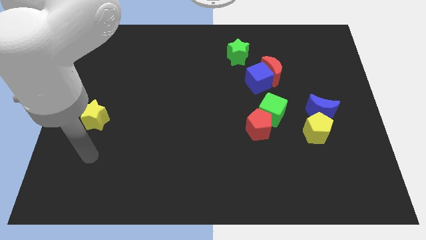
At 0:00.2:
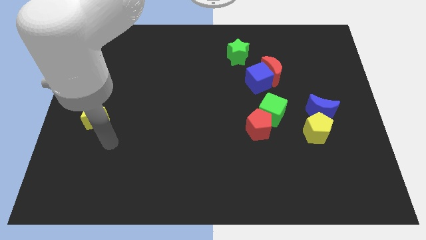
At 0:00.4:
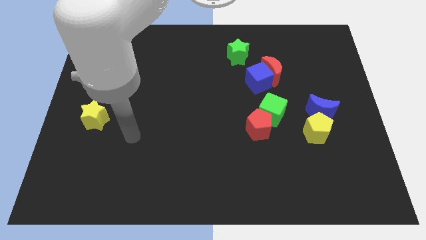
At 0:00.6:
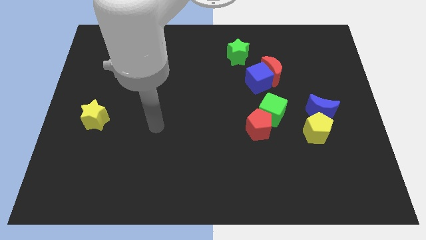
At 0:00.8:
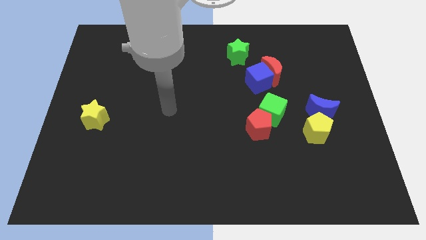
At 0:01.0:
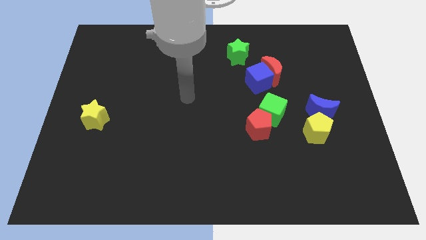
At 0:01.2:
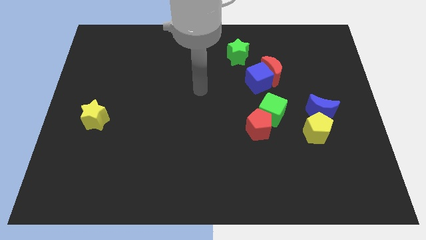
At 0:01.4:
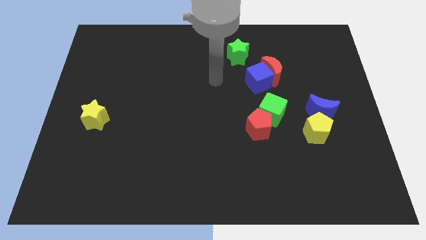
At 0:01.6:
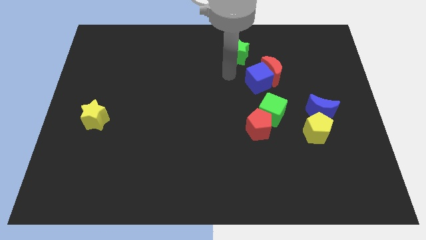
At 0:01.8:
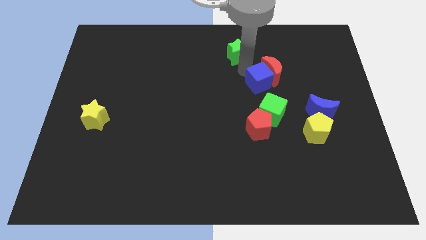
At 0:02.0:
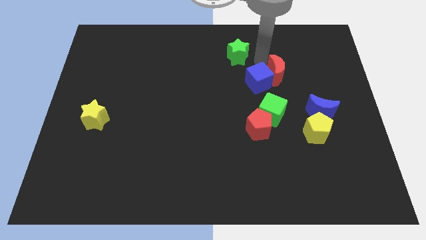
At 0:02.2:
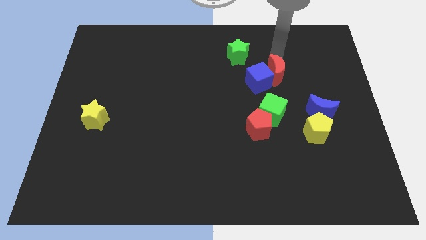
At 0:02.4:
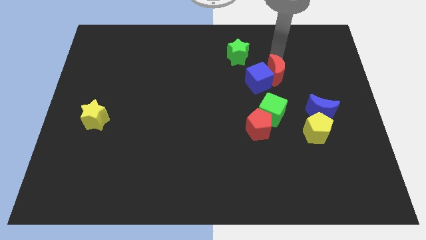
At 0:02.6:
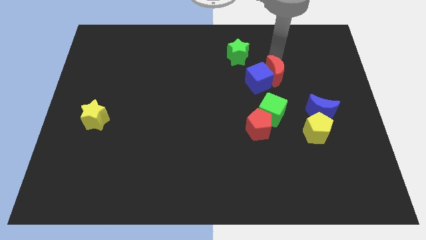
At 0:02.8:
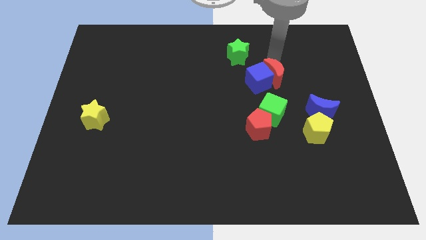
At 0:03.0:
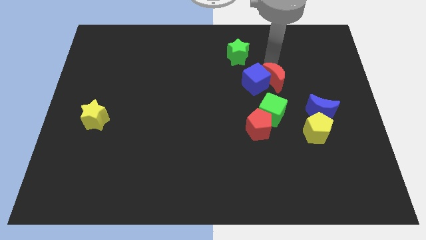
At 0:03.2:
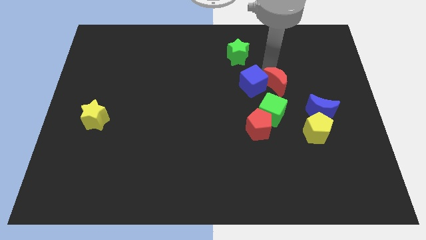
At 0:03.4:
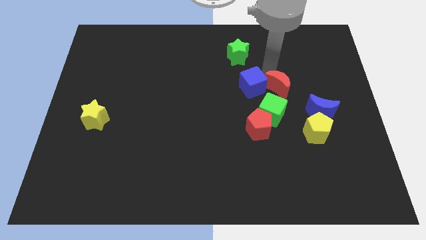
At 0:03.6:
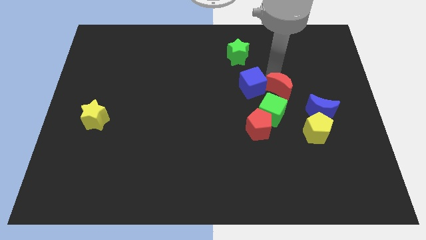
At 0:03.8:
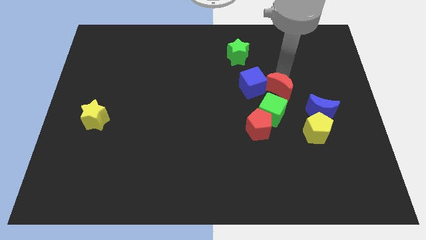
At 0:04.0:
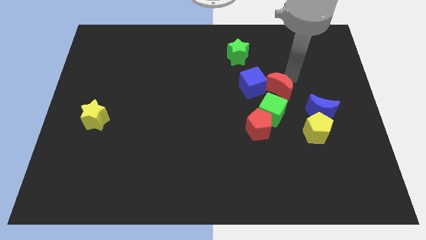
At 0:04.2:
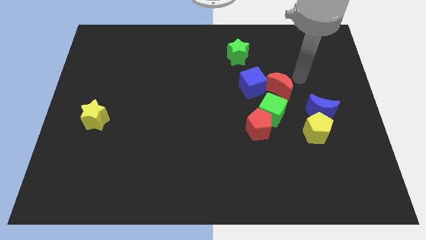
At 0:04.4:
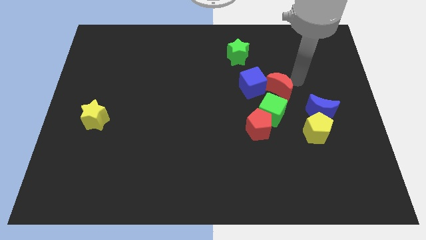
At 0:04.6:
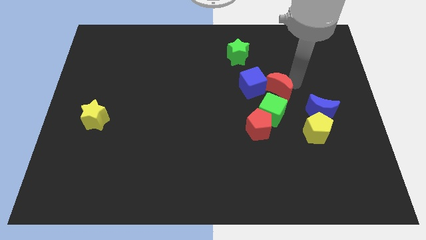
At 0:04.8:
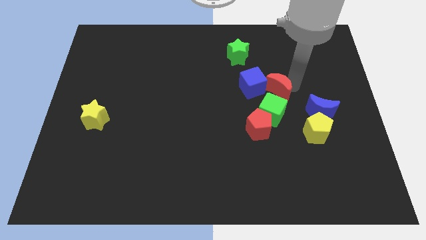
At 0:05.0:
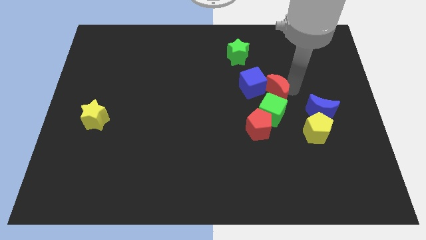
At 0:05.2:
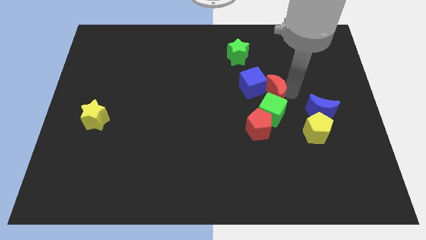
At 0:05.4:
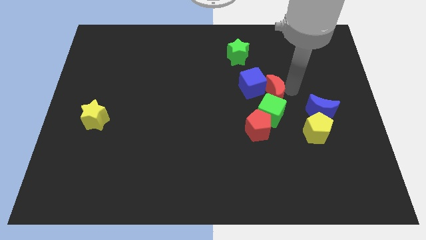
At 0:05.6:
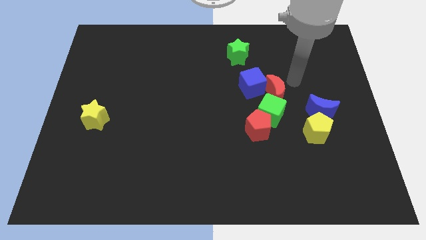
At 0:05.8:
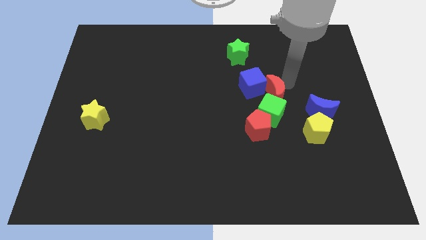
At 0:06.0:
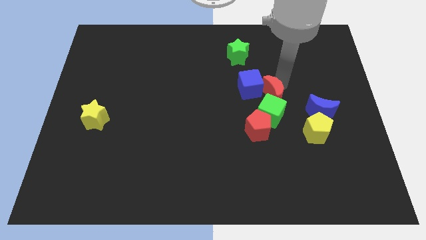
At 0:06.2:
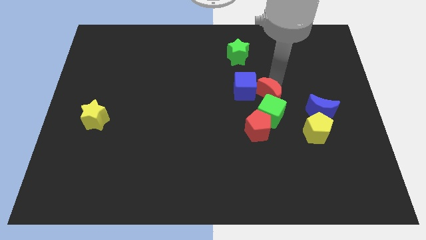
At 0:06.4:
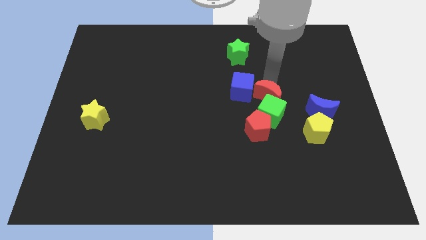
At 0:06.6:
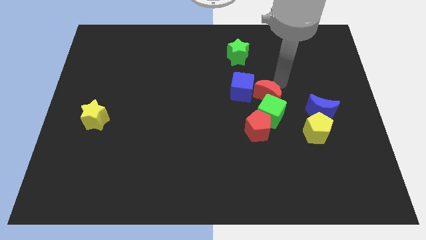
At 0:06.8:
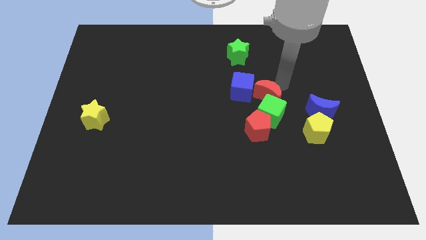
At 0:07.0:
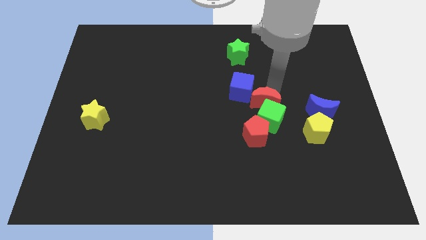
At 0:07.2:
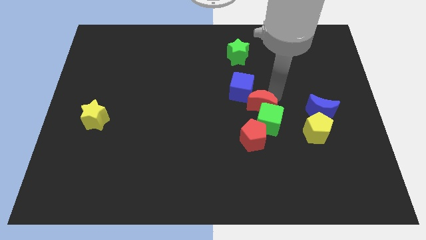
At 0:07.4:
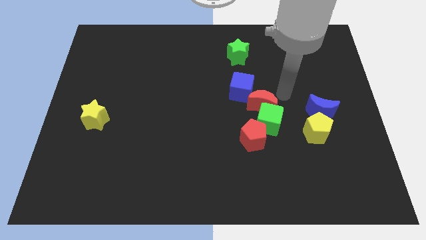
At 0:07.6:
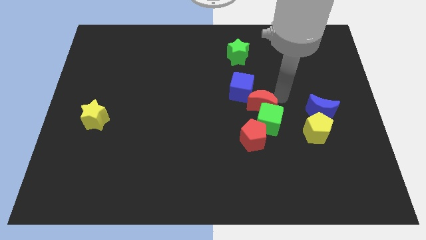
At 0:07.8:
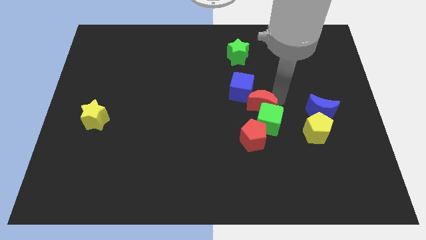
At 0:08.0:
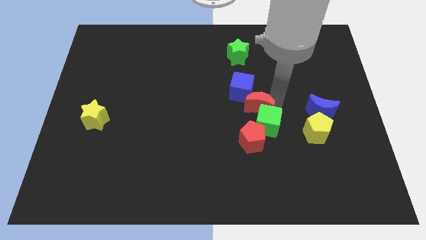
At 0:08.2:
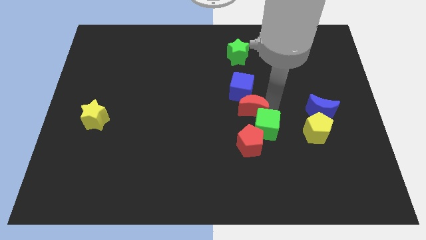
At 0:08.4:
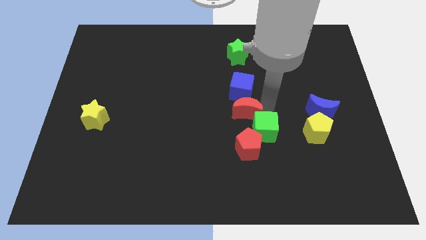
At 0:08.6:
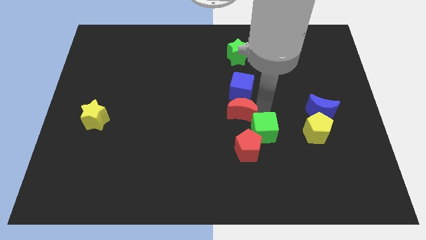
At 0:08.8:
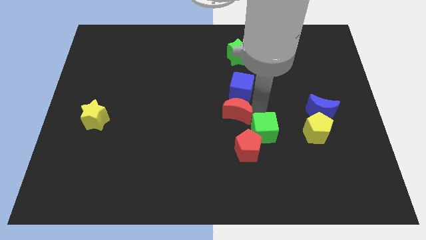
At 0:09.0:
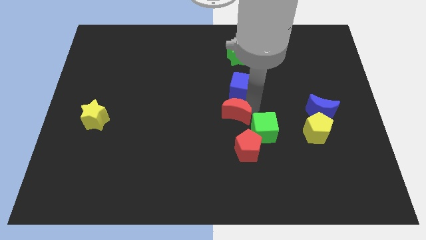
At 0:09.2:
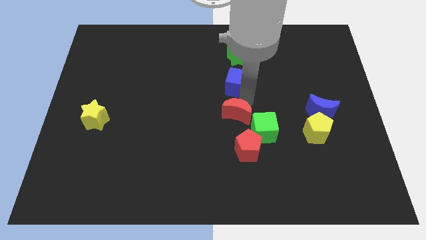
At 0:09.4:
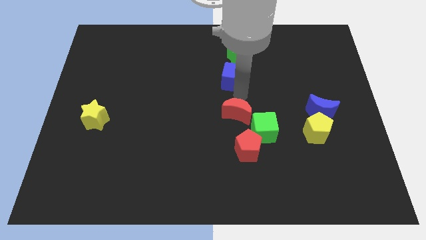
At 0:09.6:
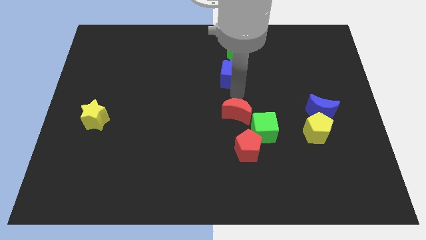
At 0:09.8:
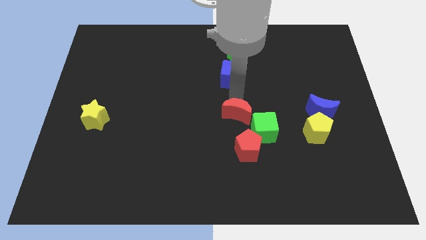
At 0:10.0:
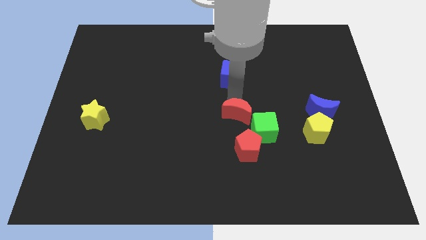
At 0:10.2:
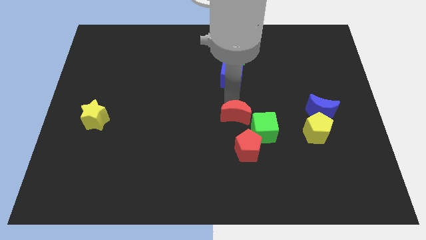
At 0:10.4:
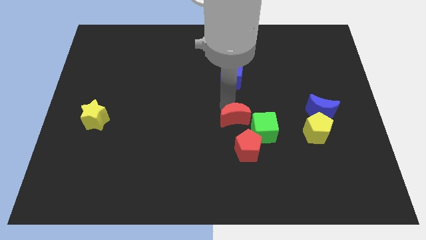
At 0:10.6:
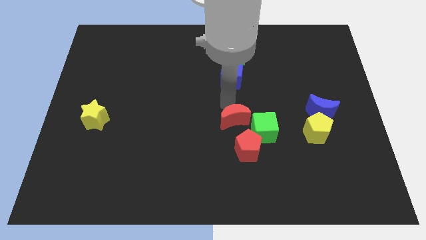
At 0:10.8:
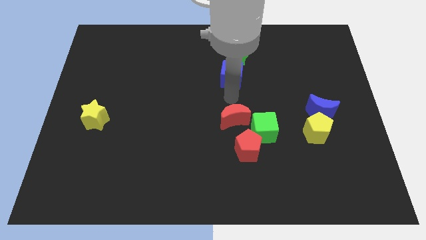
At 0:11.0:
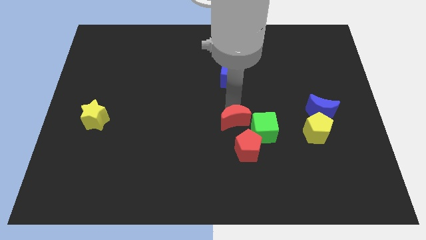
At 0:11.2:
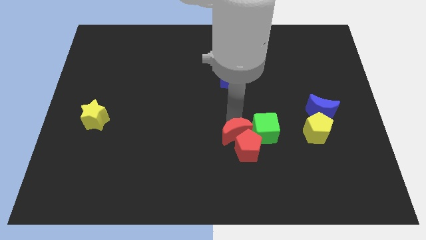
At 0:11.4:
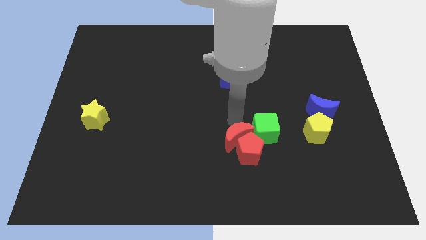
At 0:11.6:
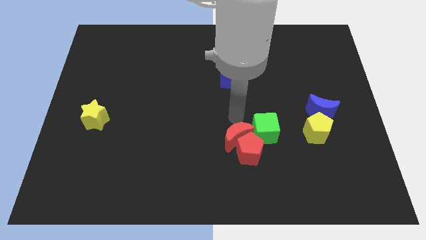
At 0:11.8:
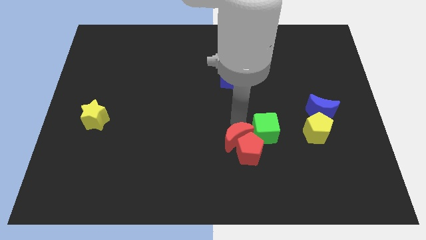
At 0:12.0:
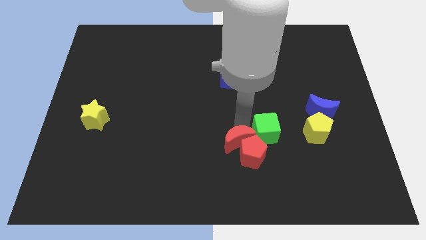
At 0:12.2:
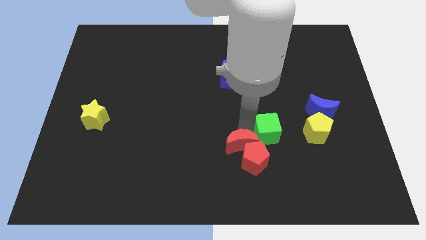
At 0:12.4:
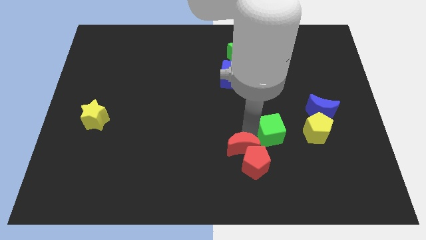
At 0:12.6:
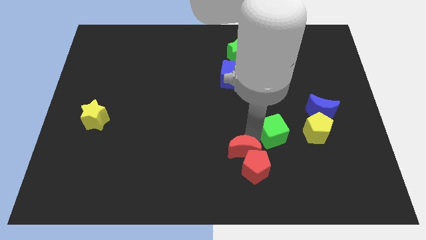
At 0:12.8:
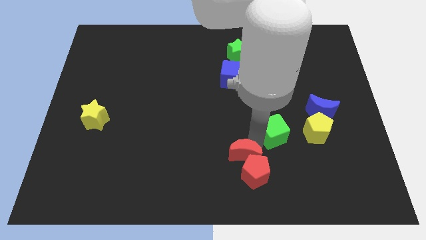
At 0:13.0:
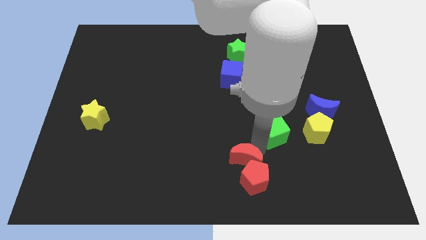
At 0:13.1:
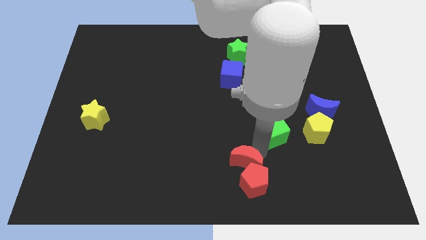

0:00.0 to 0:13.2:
slide the red moon to the bottom
